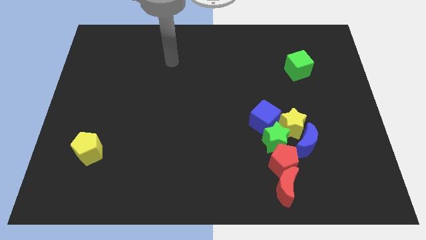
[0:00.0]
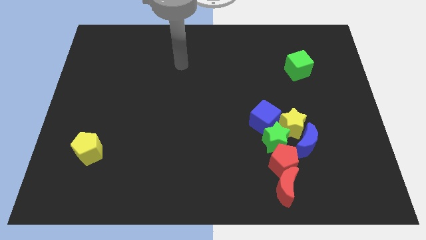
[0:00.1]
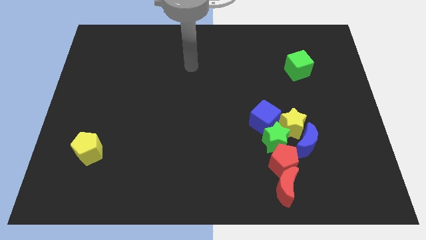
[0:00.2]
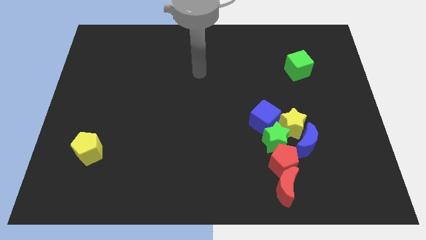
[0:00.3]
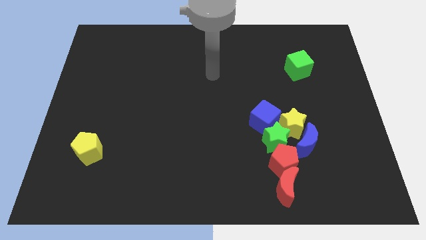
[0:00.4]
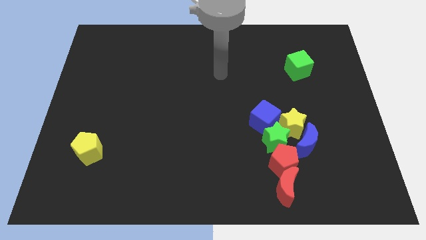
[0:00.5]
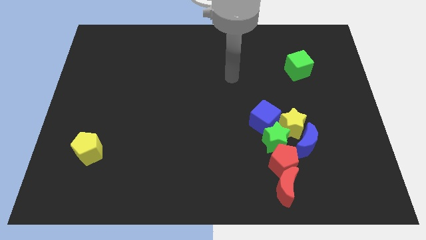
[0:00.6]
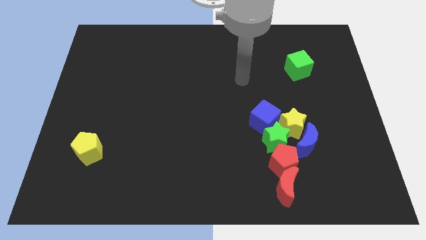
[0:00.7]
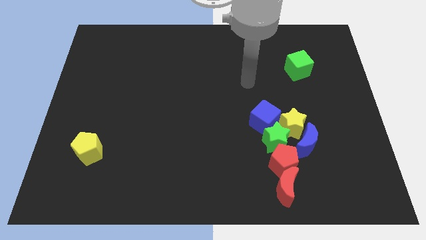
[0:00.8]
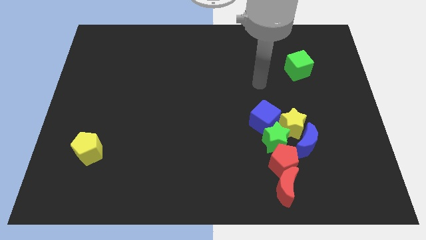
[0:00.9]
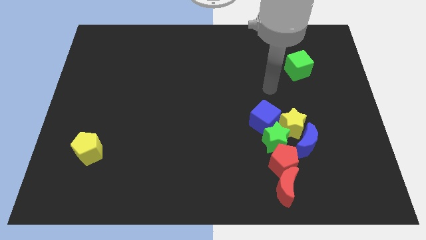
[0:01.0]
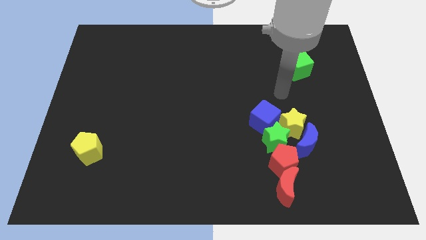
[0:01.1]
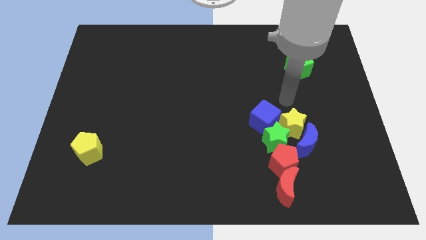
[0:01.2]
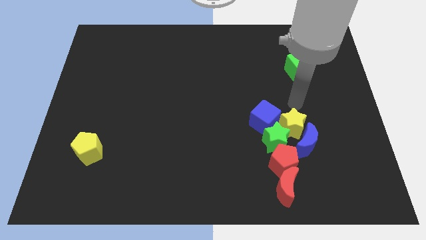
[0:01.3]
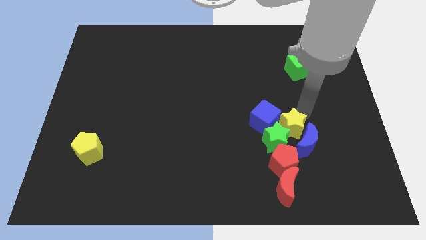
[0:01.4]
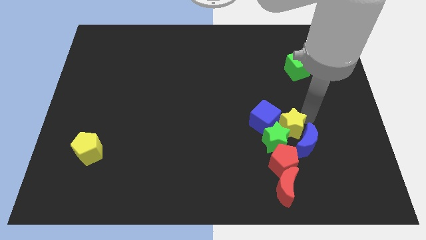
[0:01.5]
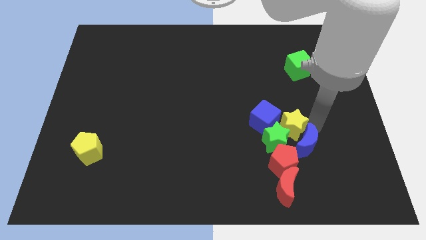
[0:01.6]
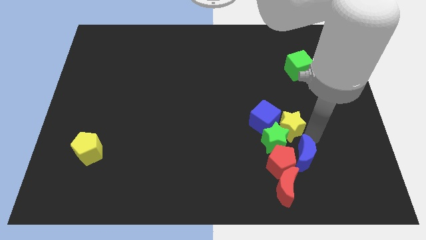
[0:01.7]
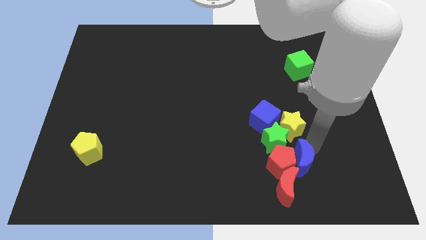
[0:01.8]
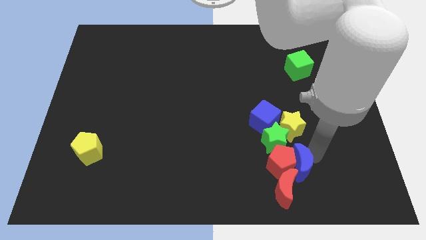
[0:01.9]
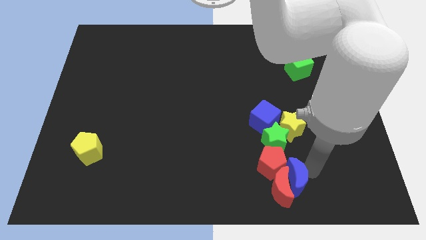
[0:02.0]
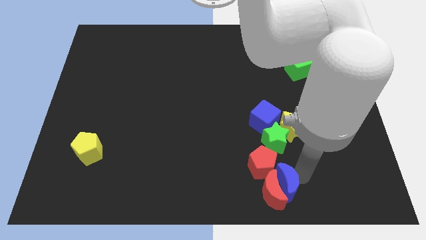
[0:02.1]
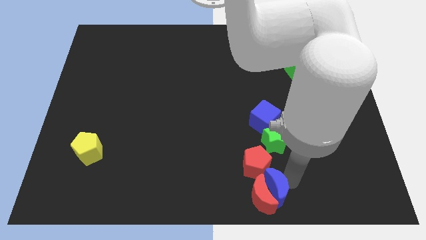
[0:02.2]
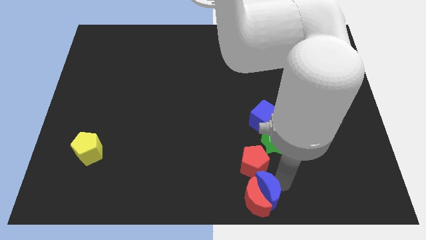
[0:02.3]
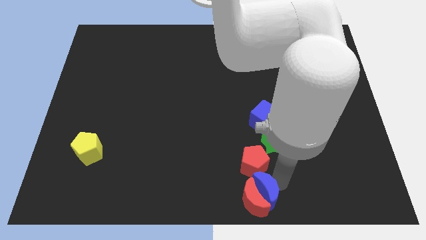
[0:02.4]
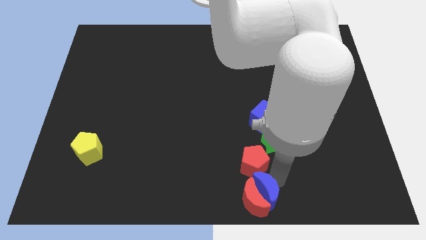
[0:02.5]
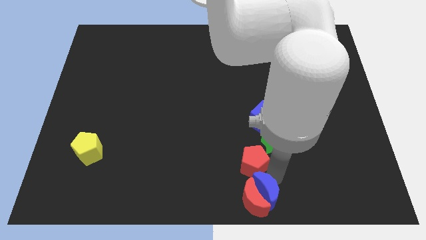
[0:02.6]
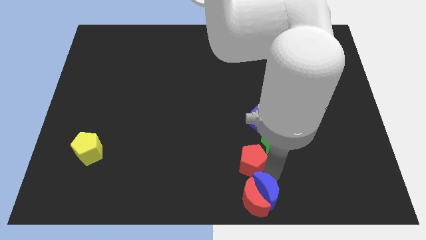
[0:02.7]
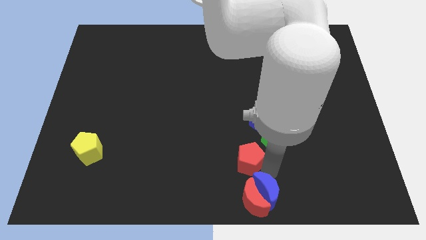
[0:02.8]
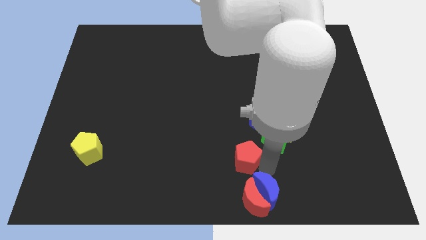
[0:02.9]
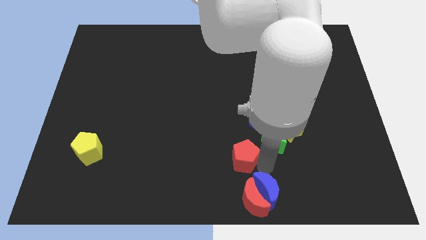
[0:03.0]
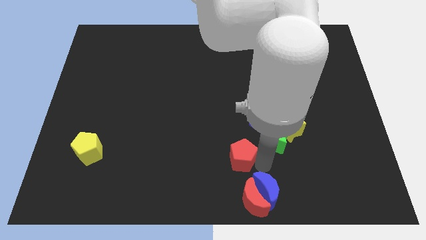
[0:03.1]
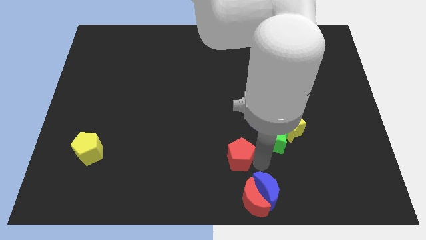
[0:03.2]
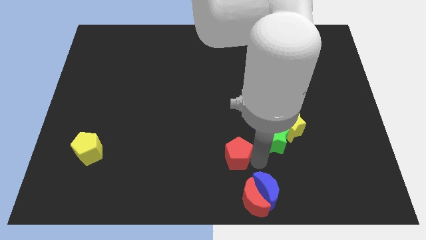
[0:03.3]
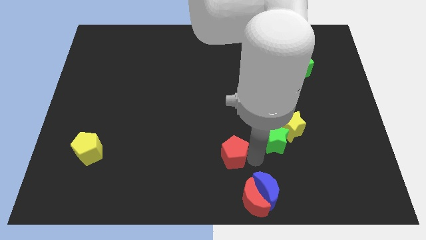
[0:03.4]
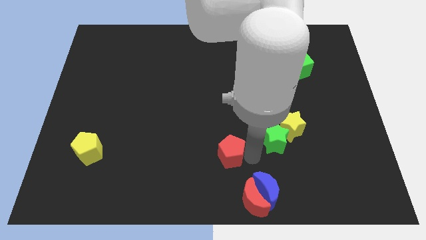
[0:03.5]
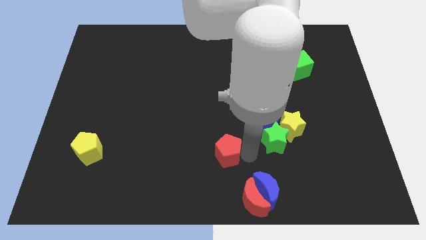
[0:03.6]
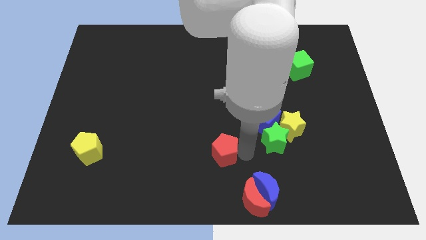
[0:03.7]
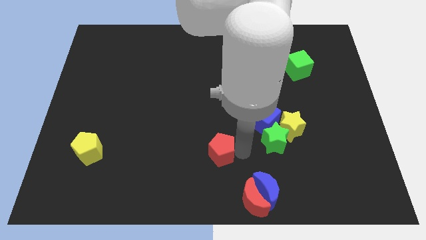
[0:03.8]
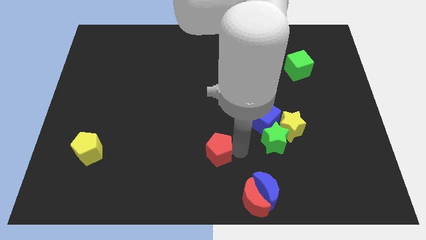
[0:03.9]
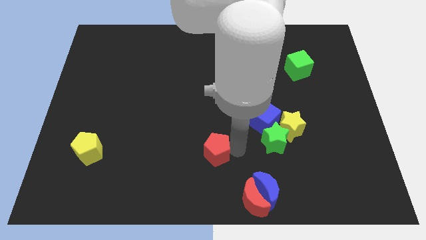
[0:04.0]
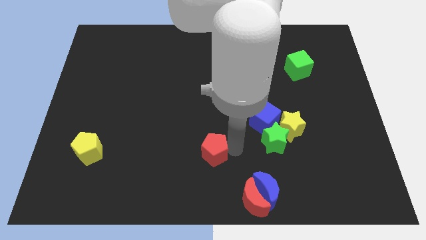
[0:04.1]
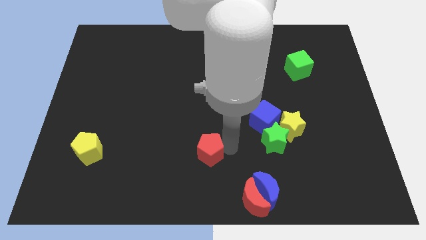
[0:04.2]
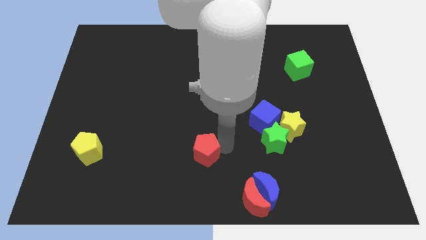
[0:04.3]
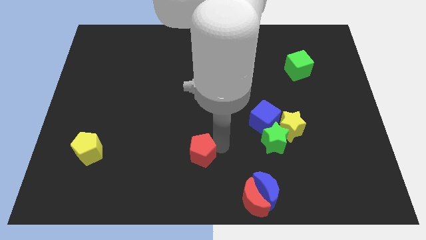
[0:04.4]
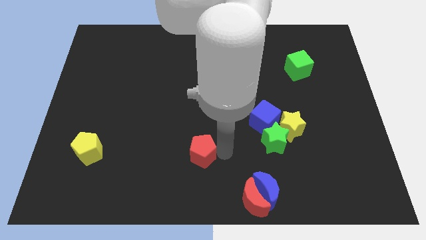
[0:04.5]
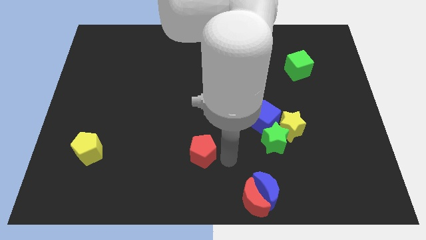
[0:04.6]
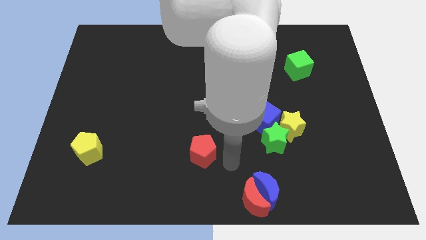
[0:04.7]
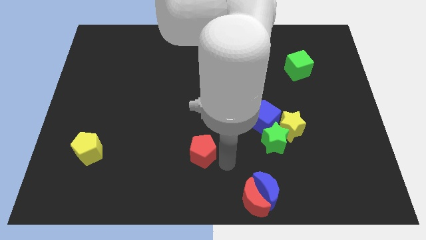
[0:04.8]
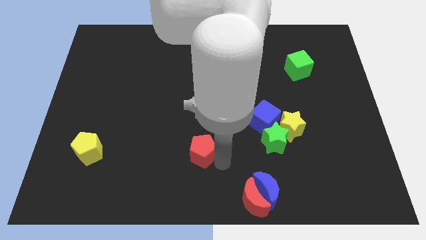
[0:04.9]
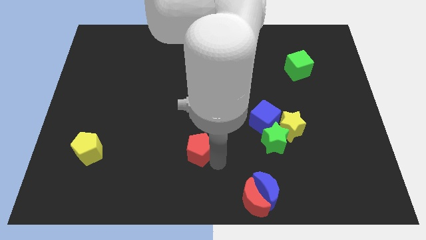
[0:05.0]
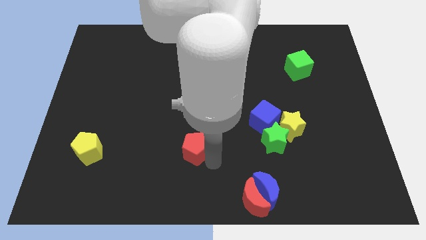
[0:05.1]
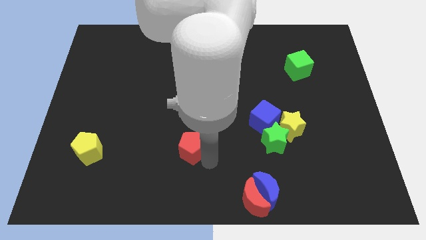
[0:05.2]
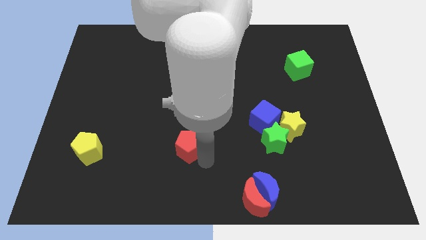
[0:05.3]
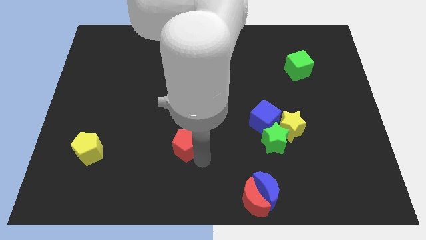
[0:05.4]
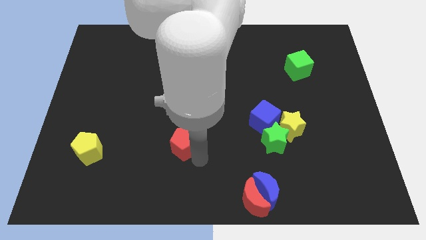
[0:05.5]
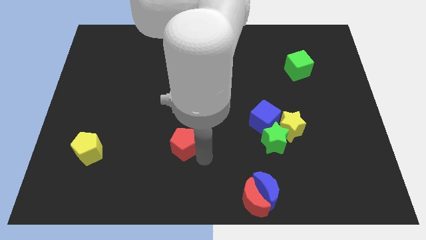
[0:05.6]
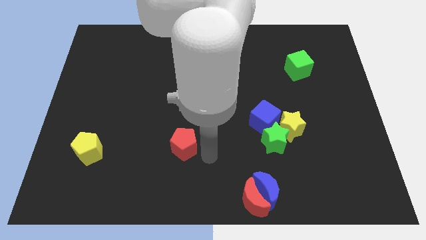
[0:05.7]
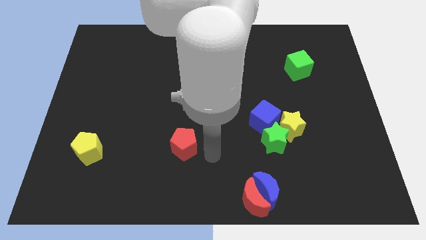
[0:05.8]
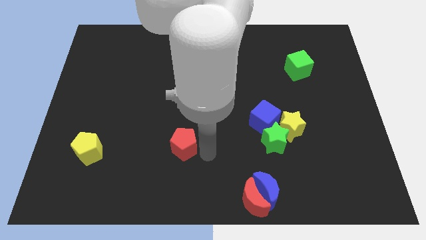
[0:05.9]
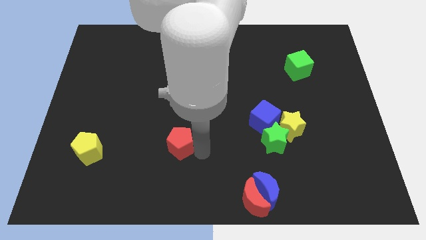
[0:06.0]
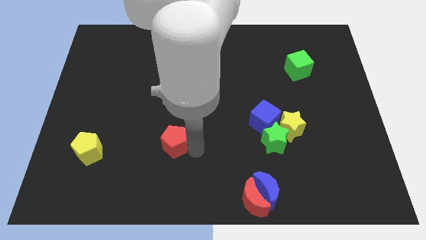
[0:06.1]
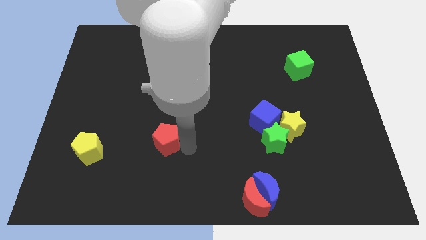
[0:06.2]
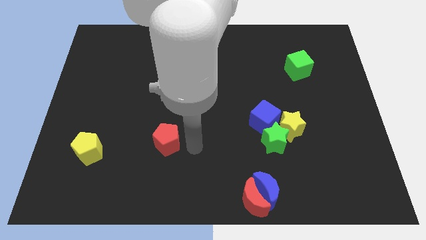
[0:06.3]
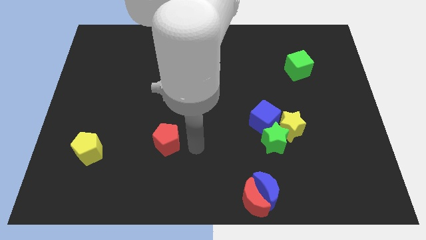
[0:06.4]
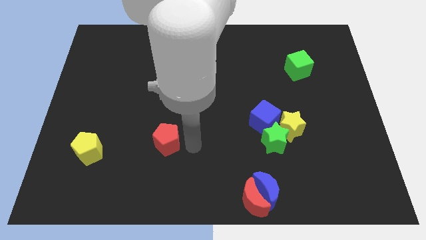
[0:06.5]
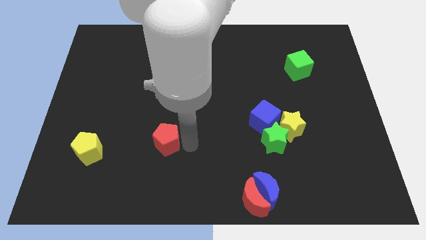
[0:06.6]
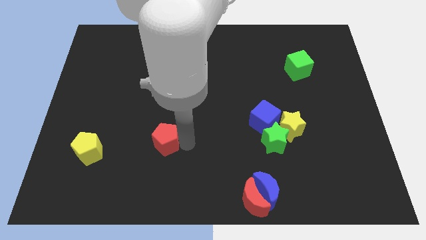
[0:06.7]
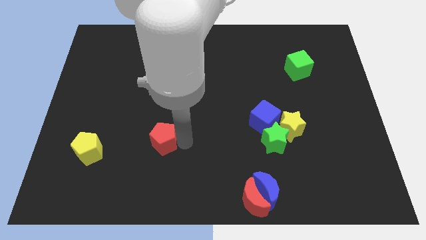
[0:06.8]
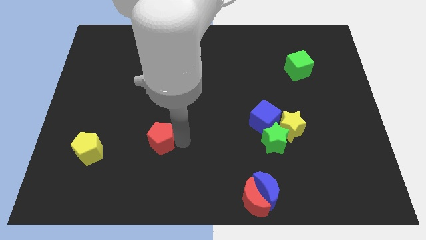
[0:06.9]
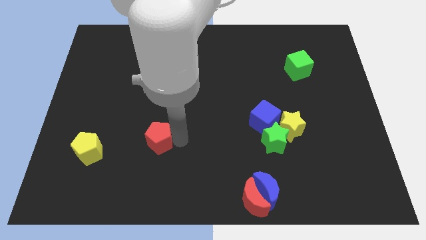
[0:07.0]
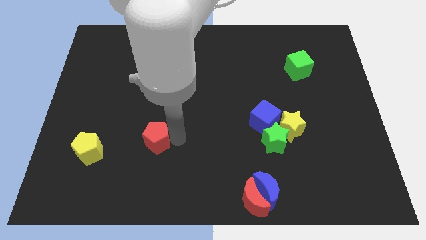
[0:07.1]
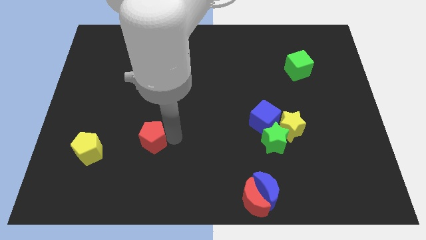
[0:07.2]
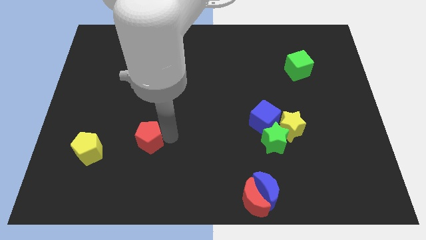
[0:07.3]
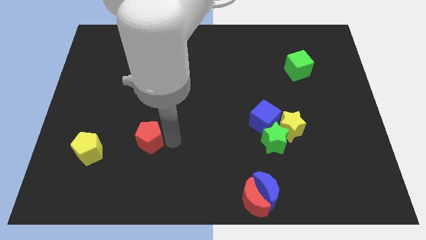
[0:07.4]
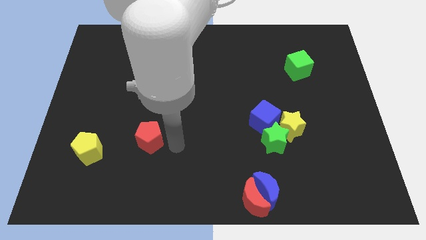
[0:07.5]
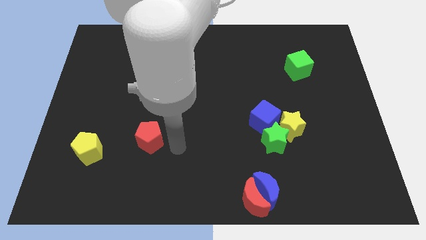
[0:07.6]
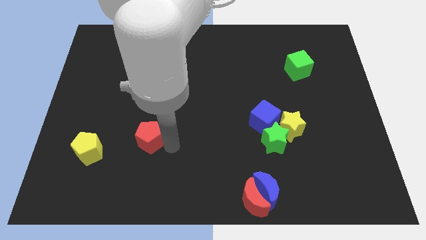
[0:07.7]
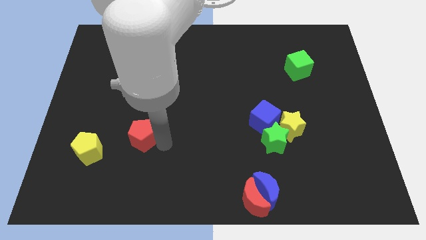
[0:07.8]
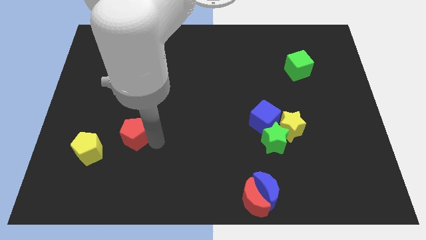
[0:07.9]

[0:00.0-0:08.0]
slide the red pentagon to the top right of the yellow pentagon
